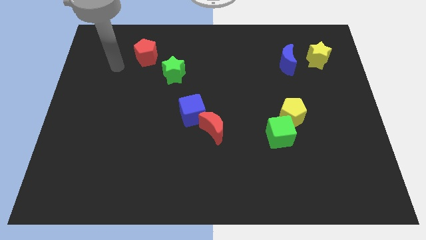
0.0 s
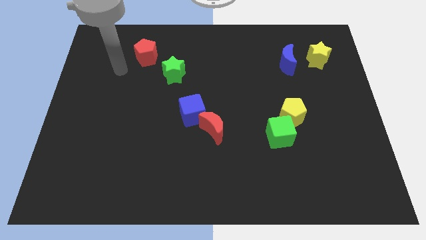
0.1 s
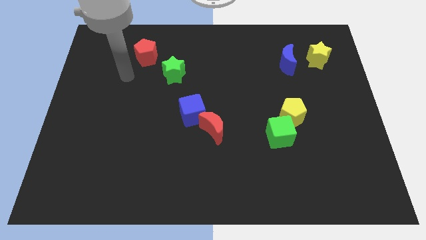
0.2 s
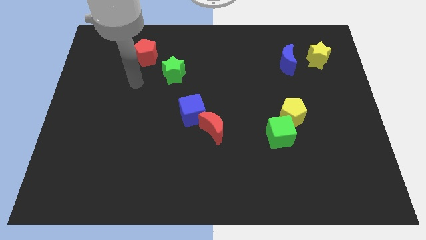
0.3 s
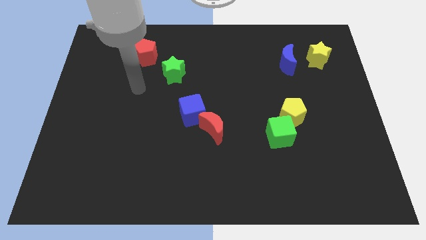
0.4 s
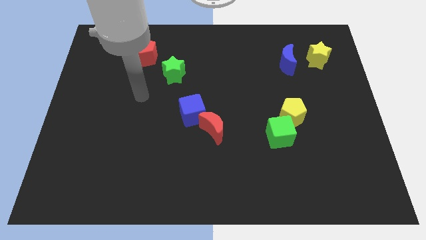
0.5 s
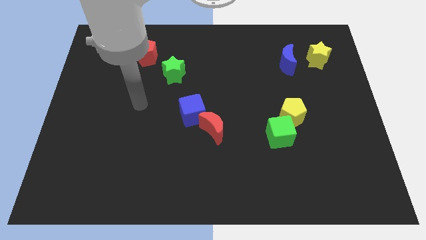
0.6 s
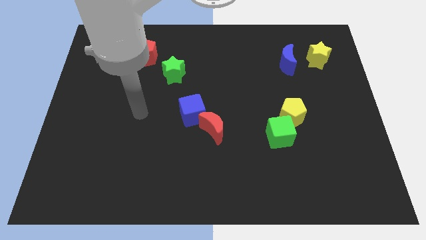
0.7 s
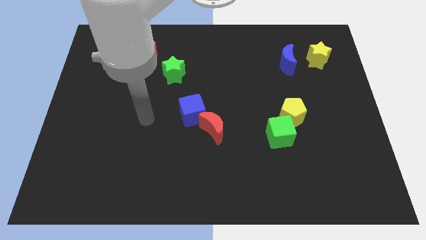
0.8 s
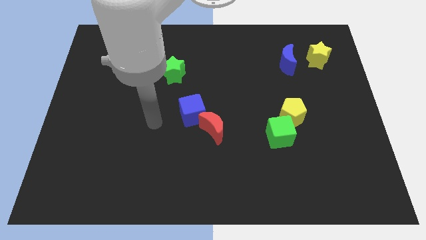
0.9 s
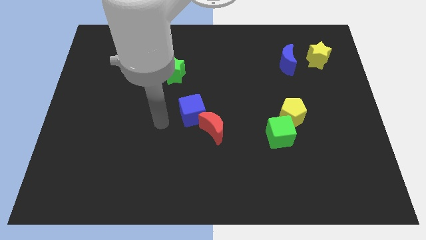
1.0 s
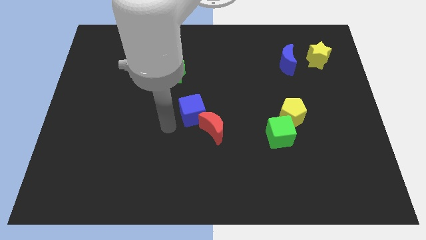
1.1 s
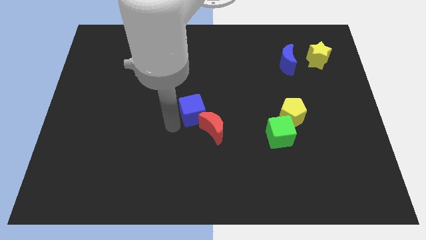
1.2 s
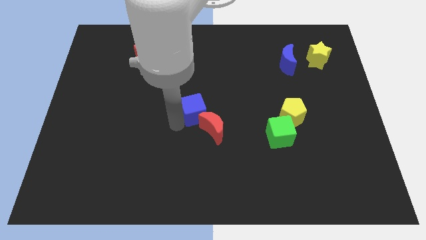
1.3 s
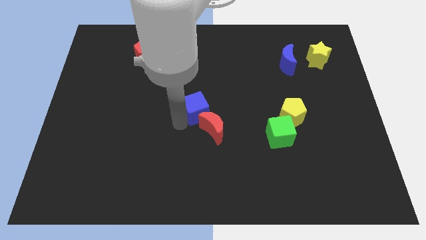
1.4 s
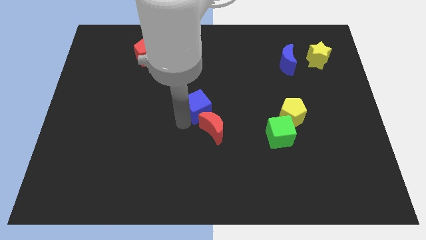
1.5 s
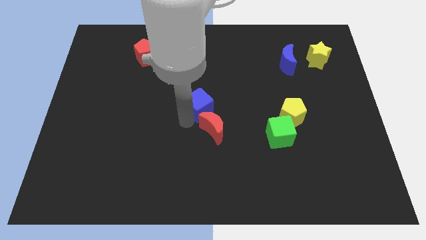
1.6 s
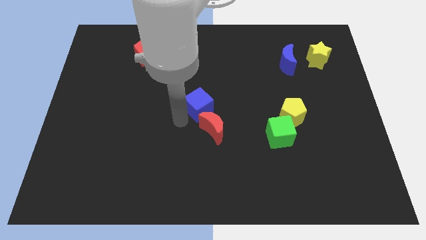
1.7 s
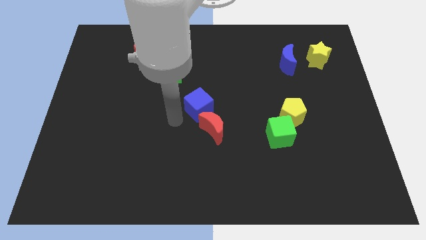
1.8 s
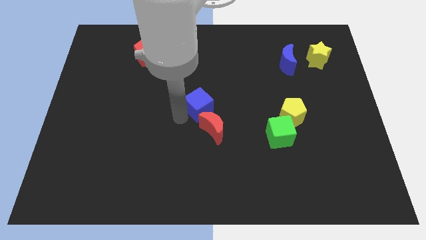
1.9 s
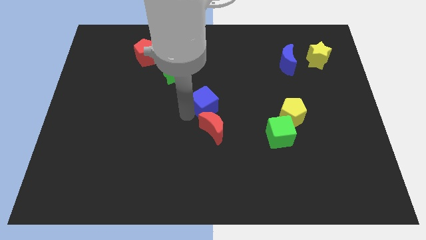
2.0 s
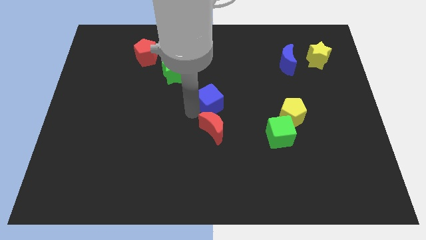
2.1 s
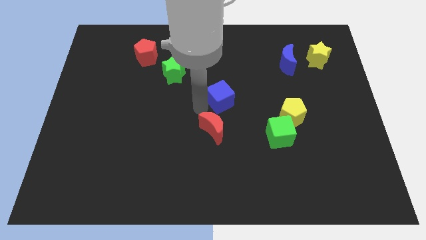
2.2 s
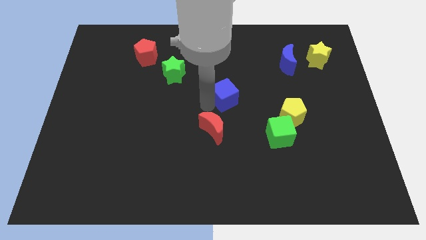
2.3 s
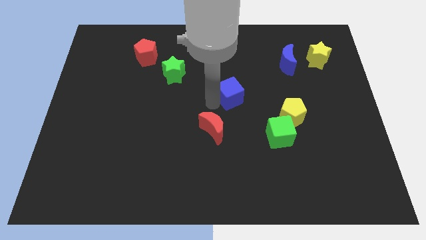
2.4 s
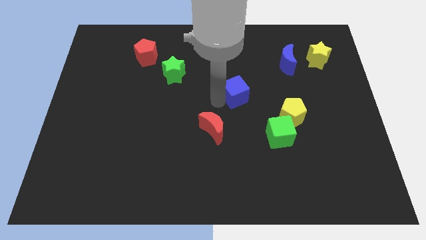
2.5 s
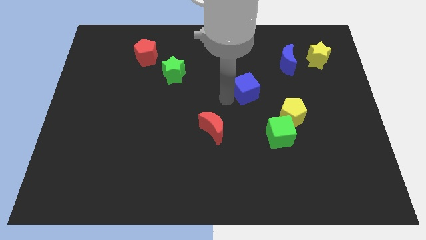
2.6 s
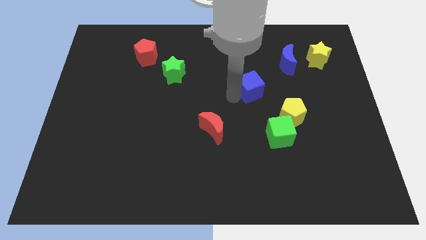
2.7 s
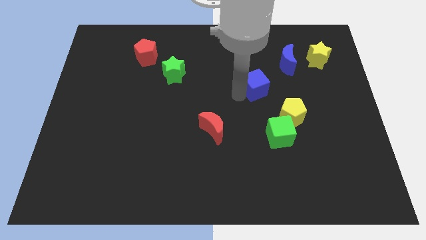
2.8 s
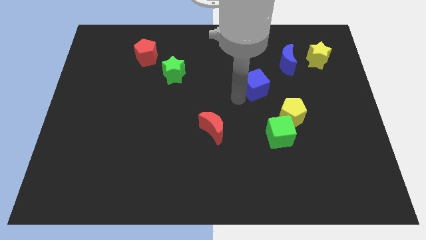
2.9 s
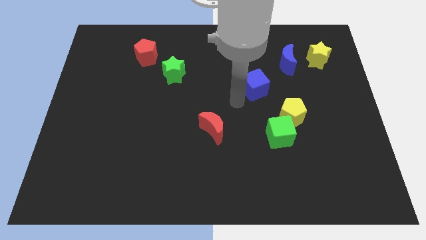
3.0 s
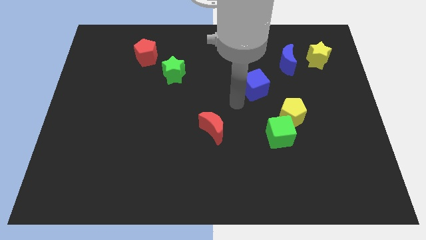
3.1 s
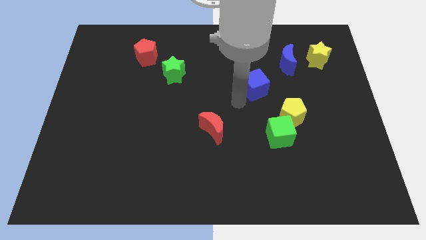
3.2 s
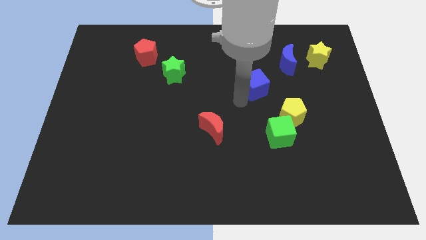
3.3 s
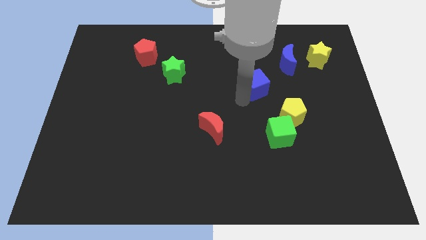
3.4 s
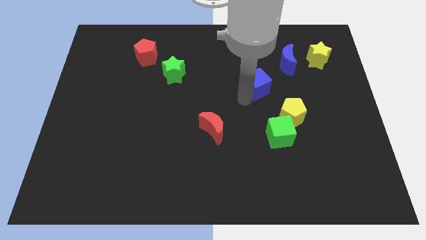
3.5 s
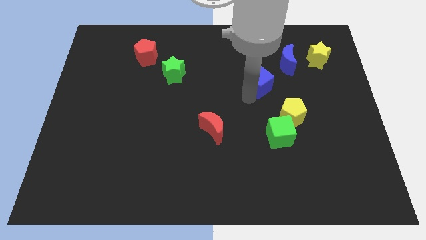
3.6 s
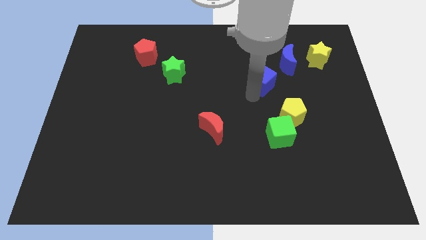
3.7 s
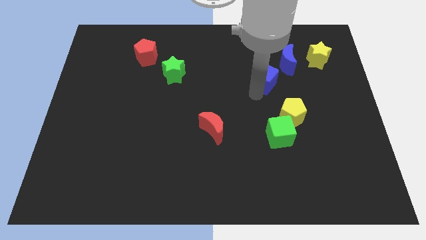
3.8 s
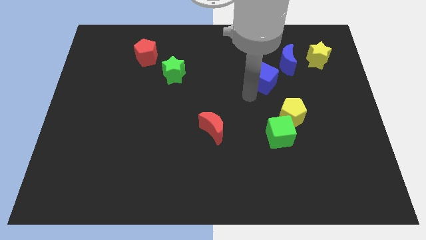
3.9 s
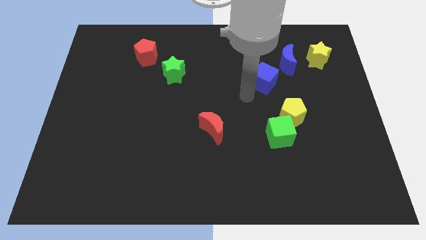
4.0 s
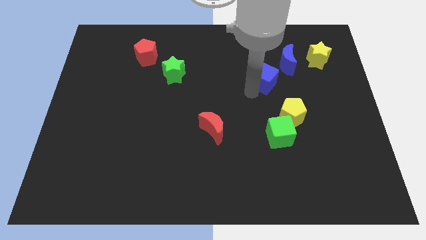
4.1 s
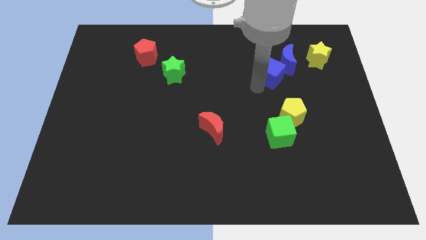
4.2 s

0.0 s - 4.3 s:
put the blue cube next to the blue moon

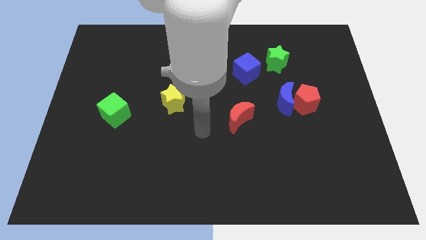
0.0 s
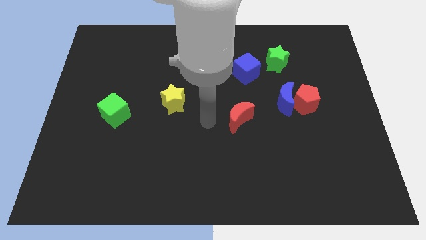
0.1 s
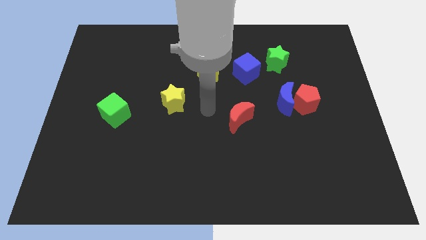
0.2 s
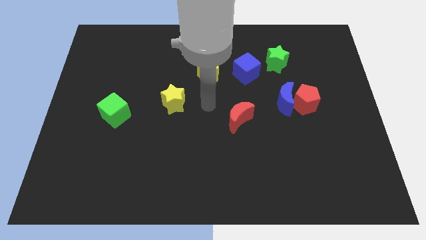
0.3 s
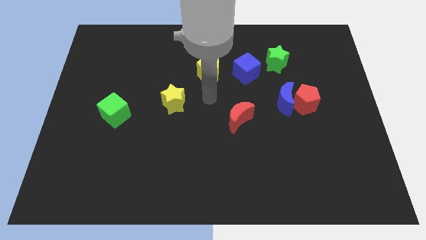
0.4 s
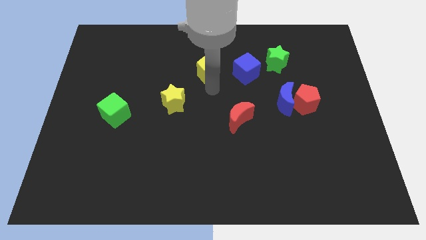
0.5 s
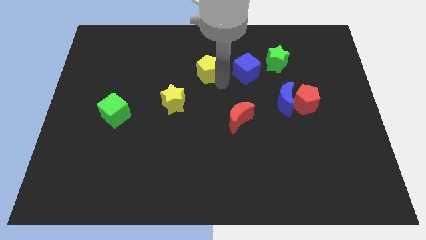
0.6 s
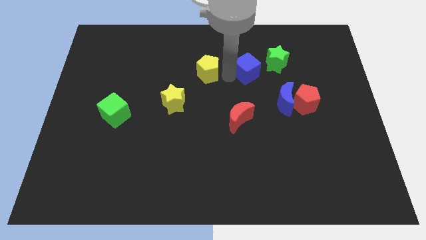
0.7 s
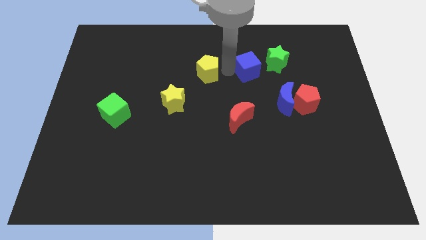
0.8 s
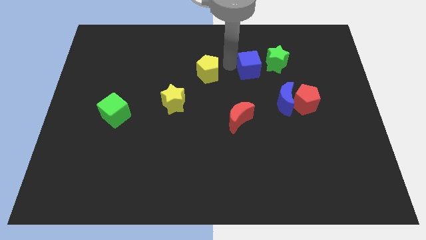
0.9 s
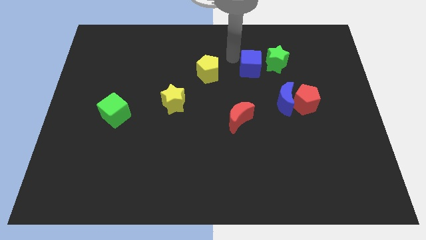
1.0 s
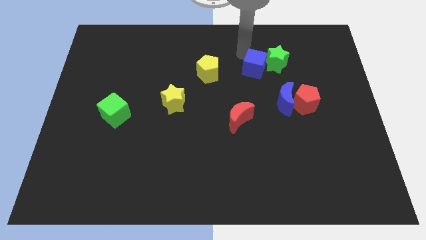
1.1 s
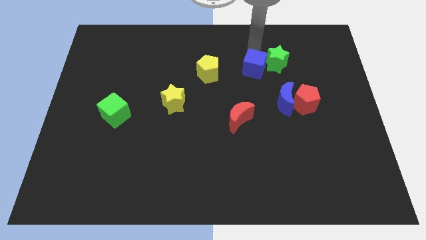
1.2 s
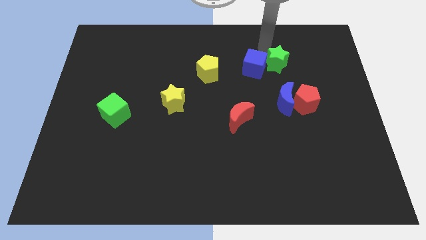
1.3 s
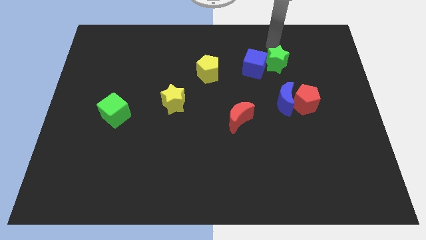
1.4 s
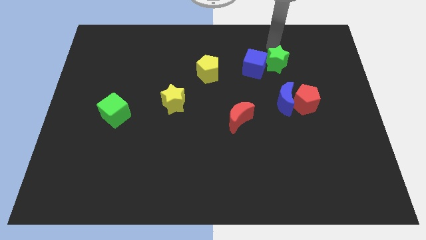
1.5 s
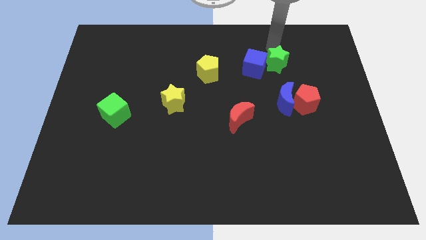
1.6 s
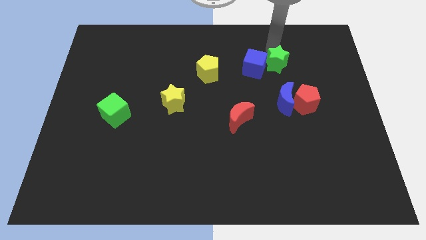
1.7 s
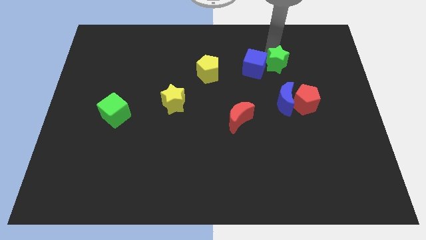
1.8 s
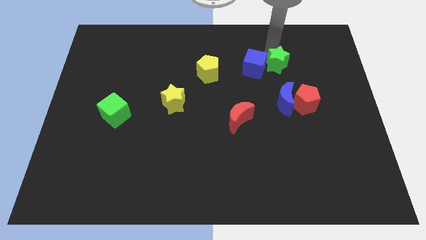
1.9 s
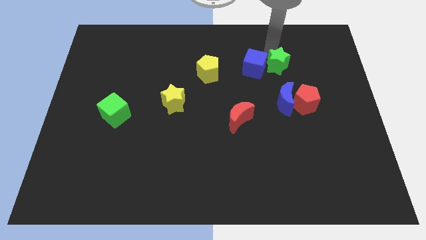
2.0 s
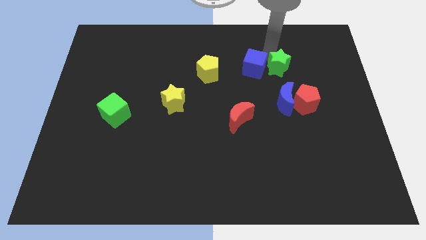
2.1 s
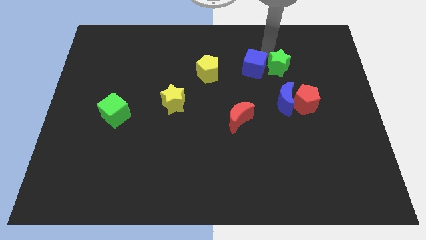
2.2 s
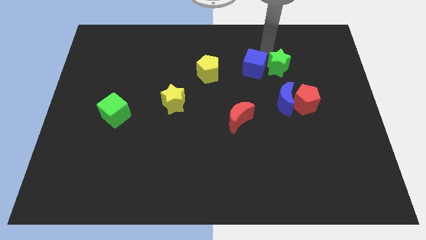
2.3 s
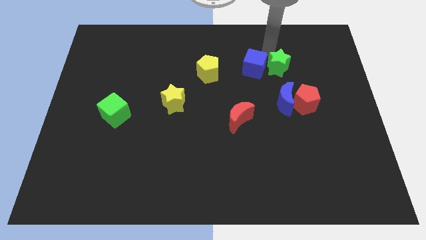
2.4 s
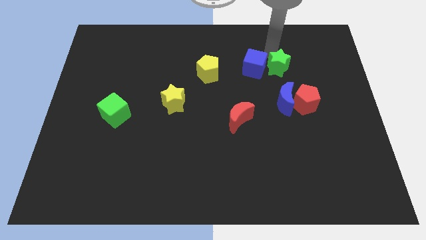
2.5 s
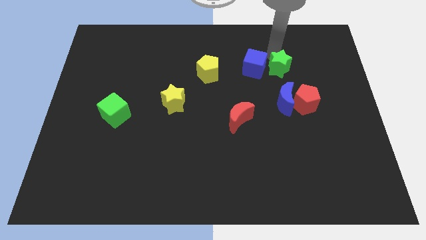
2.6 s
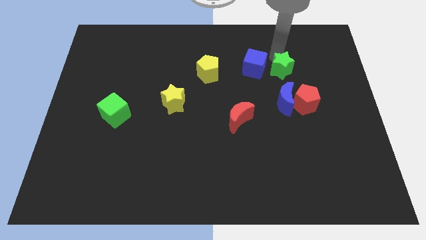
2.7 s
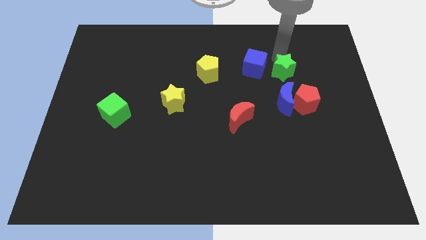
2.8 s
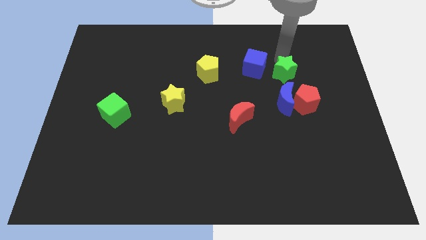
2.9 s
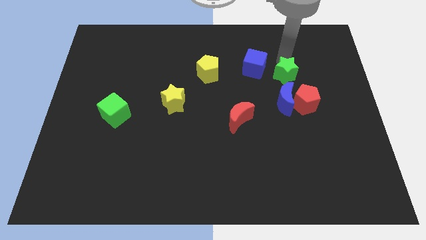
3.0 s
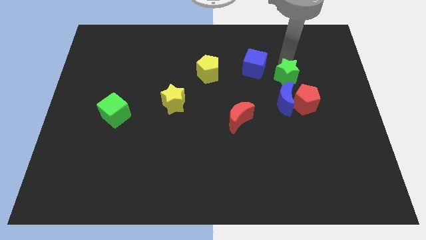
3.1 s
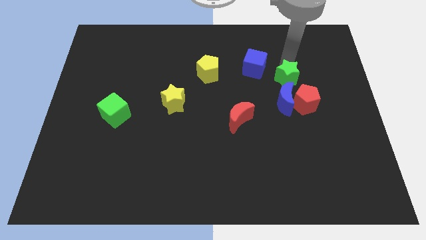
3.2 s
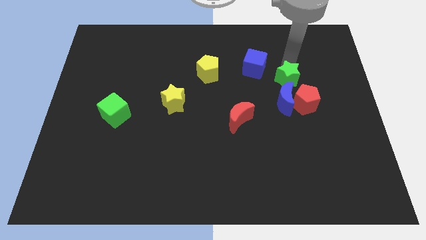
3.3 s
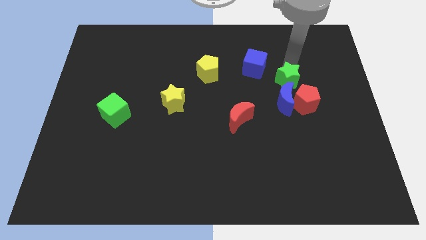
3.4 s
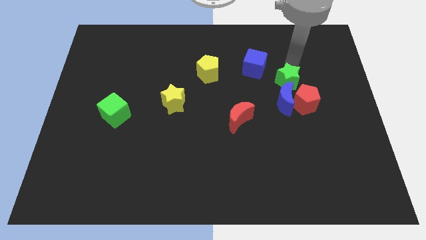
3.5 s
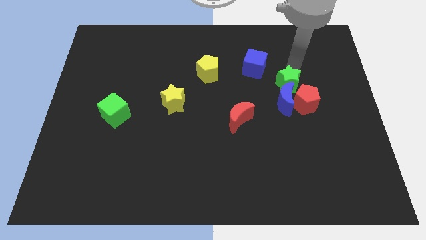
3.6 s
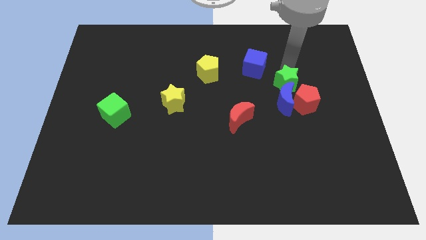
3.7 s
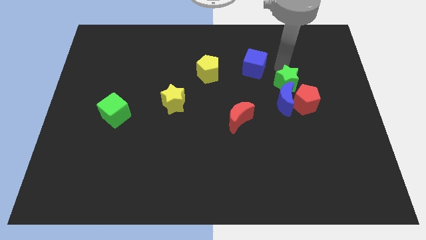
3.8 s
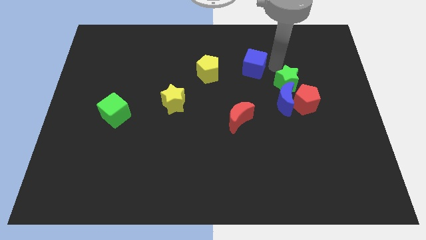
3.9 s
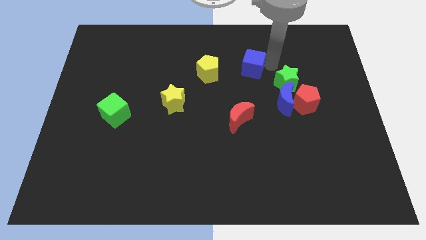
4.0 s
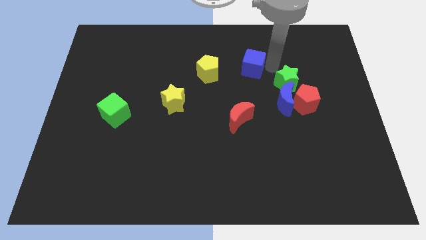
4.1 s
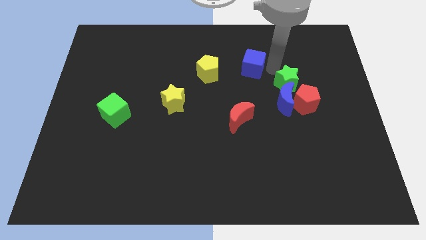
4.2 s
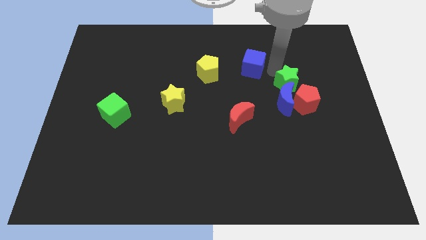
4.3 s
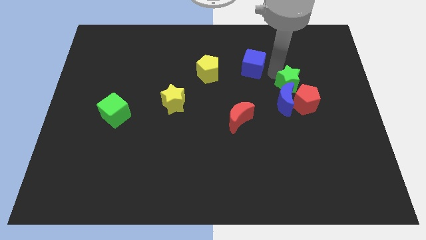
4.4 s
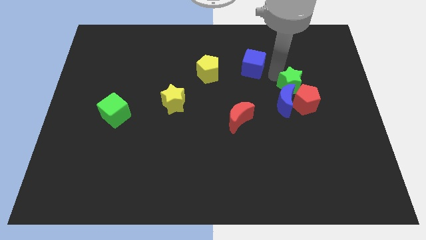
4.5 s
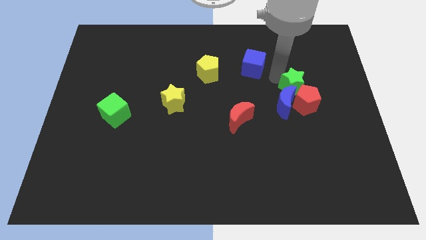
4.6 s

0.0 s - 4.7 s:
move the green star towards the red pentagon
